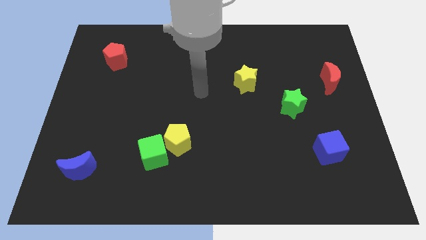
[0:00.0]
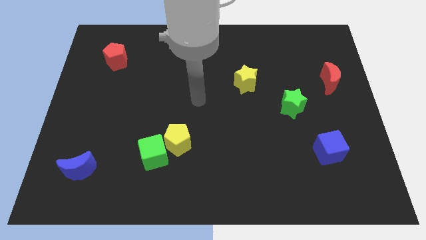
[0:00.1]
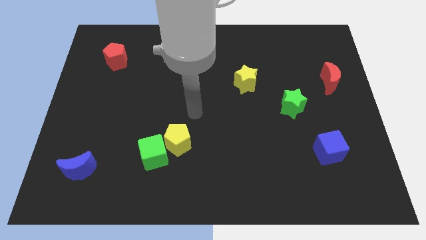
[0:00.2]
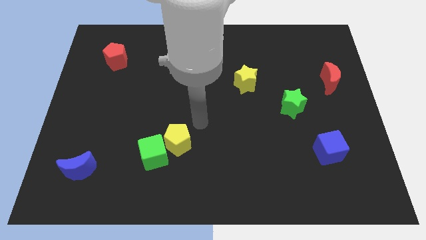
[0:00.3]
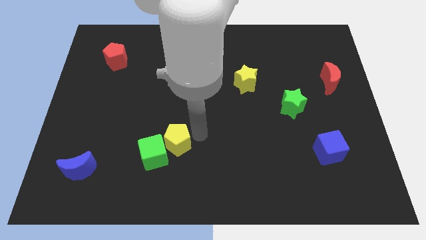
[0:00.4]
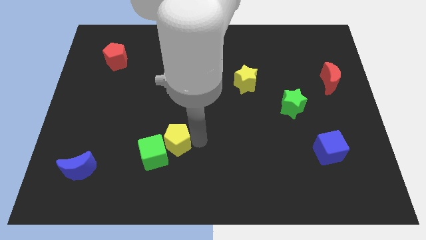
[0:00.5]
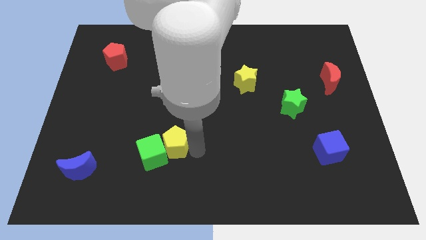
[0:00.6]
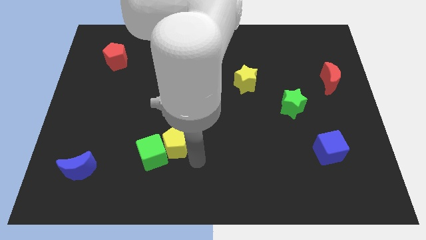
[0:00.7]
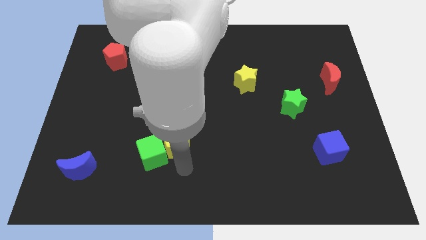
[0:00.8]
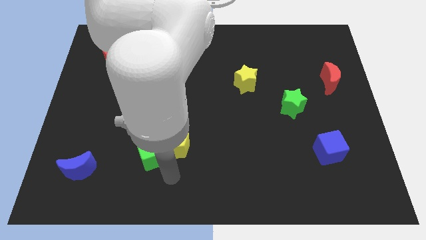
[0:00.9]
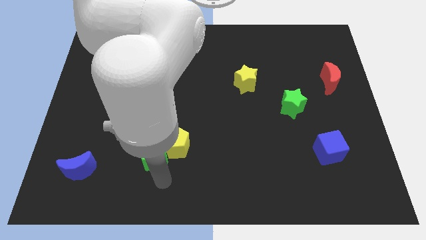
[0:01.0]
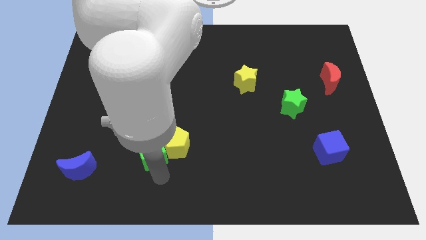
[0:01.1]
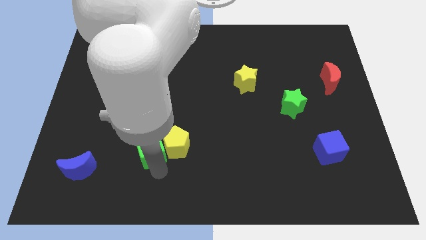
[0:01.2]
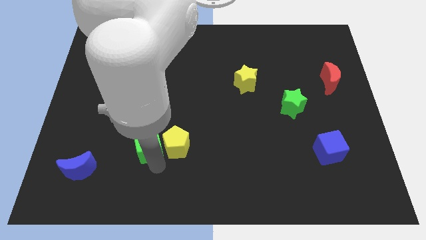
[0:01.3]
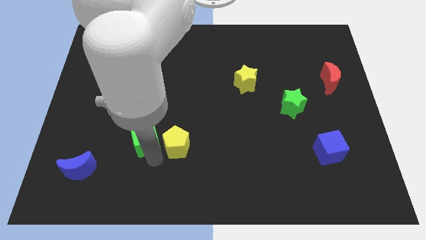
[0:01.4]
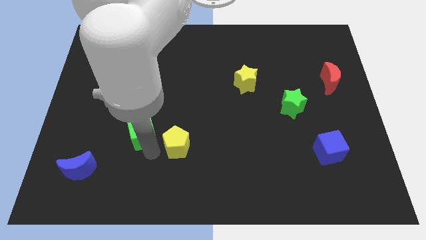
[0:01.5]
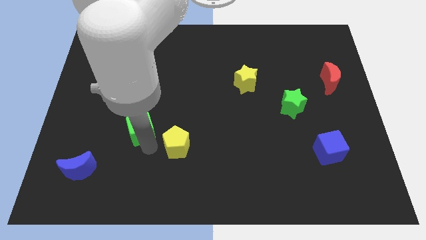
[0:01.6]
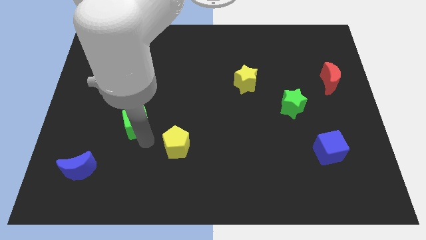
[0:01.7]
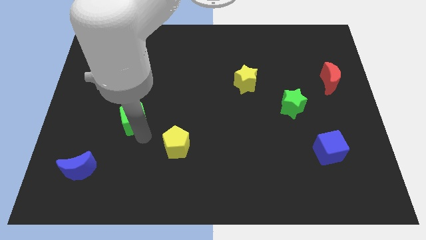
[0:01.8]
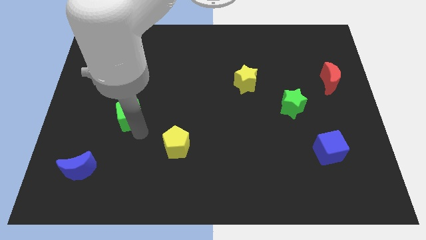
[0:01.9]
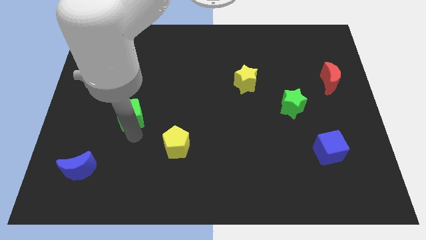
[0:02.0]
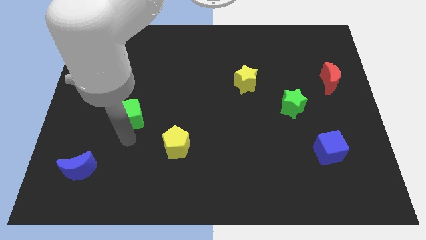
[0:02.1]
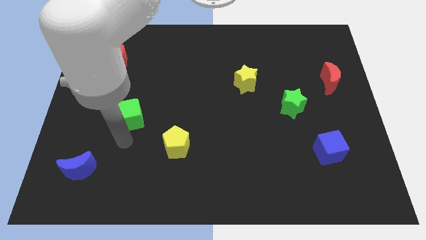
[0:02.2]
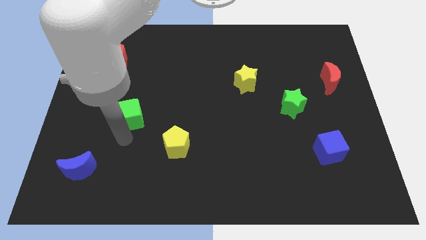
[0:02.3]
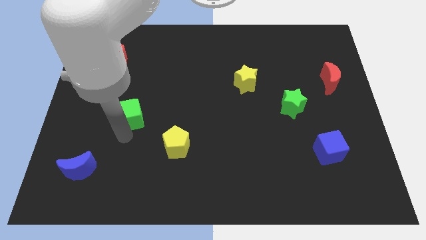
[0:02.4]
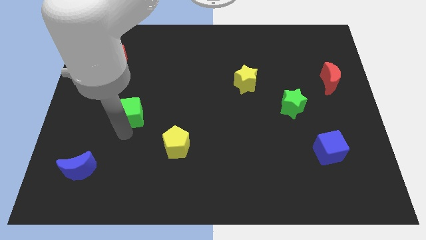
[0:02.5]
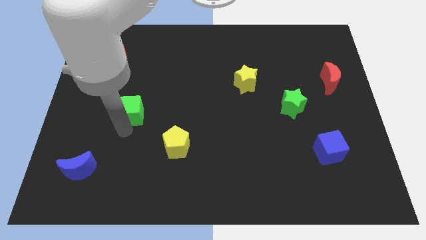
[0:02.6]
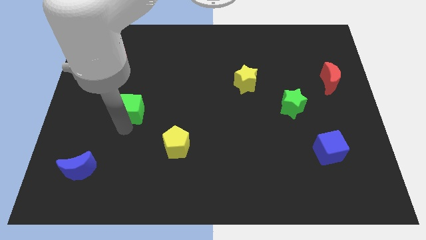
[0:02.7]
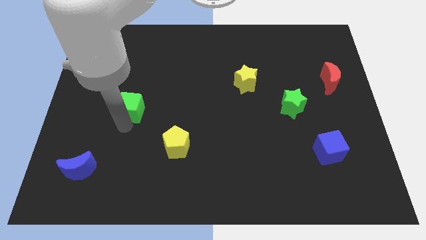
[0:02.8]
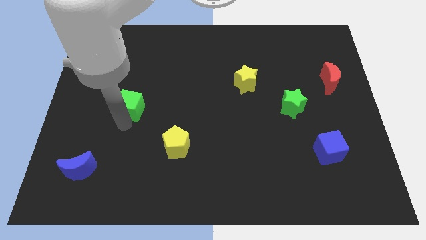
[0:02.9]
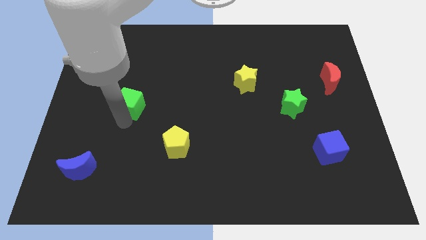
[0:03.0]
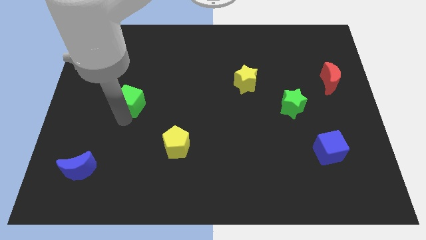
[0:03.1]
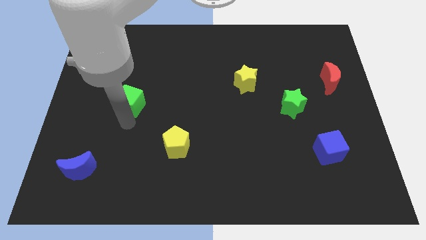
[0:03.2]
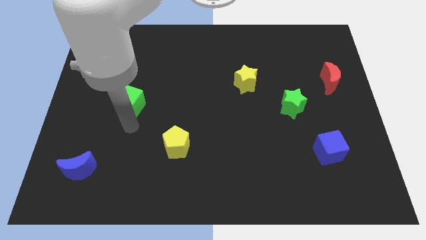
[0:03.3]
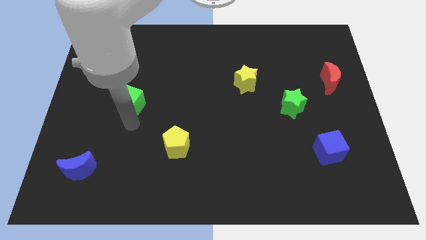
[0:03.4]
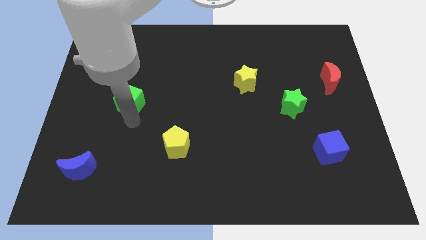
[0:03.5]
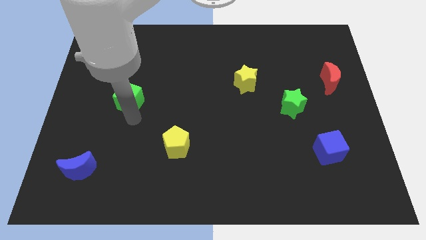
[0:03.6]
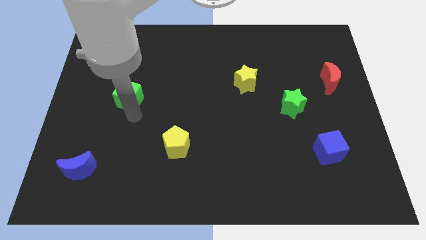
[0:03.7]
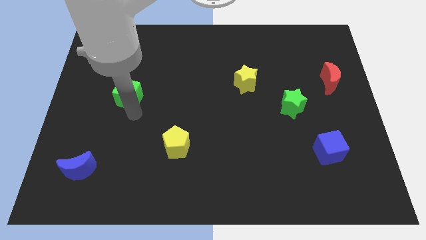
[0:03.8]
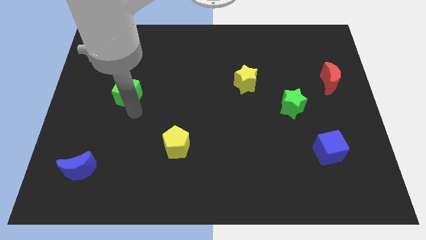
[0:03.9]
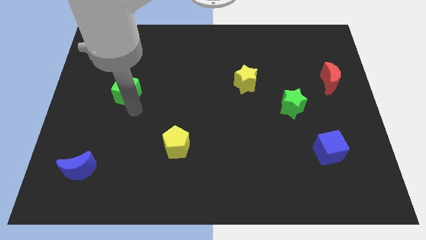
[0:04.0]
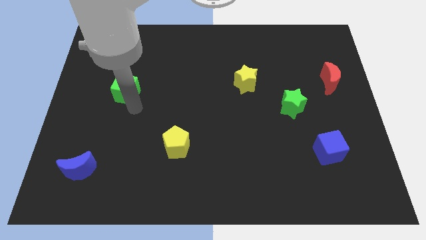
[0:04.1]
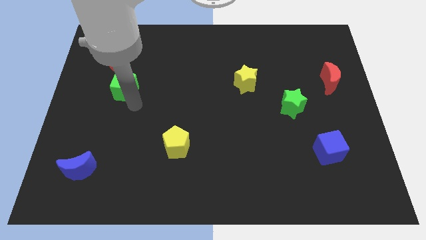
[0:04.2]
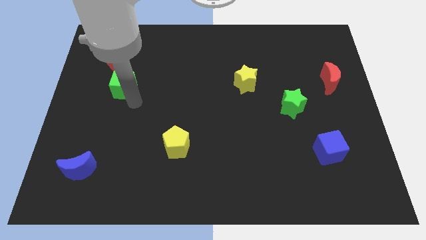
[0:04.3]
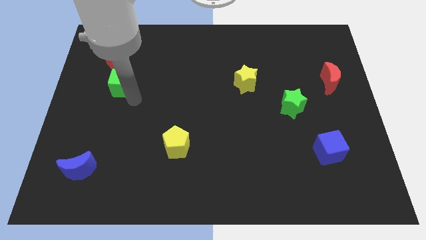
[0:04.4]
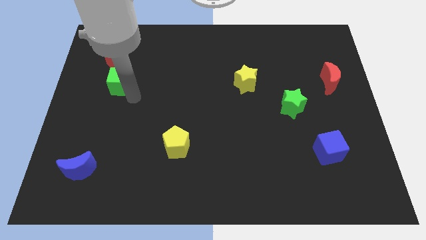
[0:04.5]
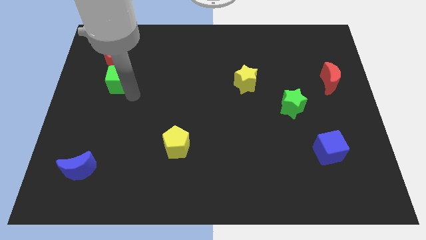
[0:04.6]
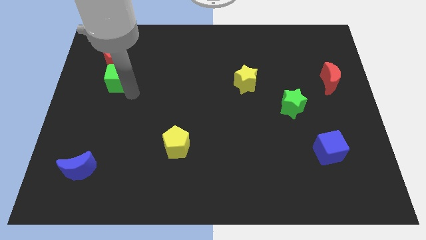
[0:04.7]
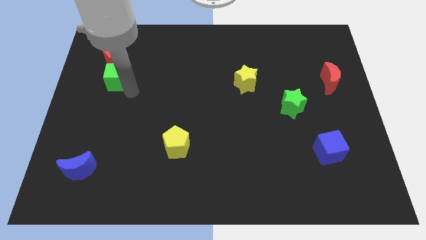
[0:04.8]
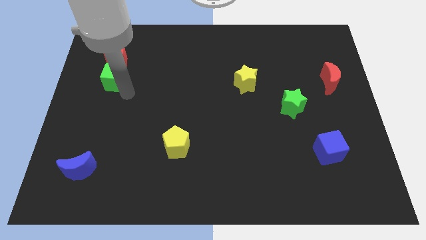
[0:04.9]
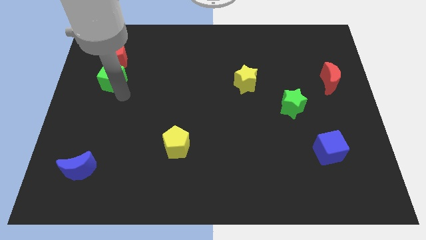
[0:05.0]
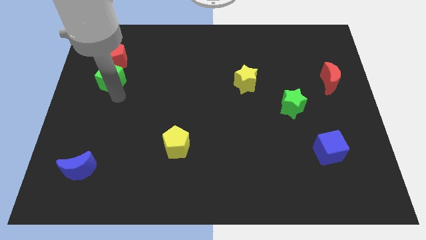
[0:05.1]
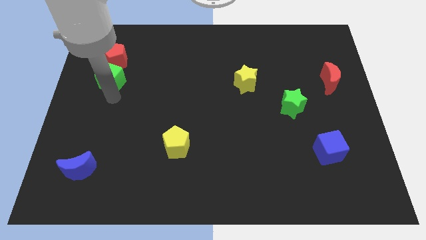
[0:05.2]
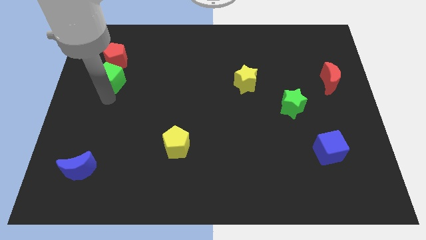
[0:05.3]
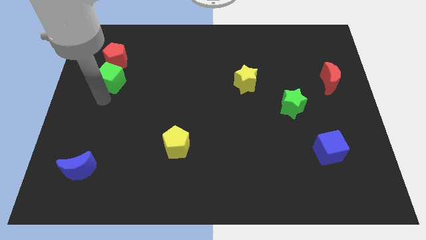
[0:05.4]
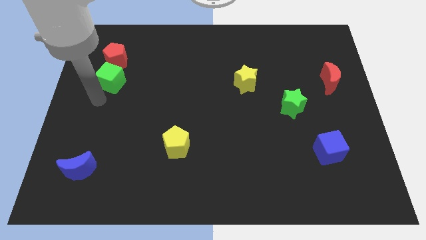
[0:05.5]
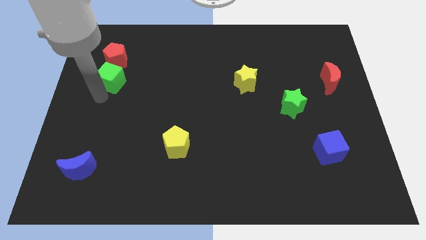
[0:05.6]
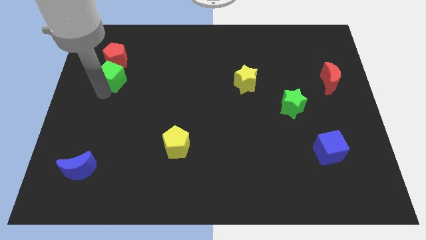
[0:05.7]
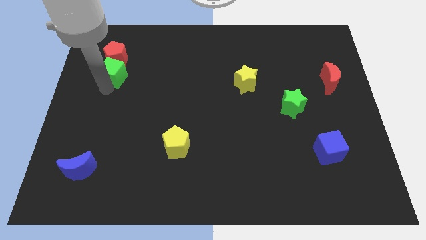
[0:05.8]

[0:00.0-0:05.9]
put the green cube towards the red pentagon

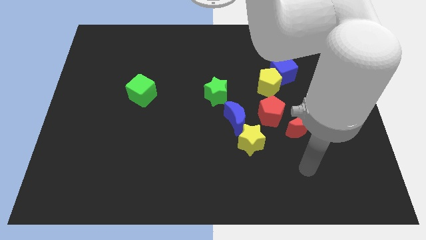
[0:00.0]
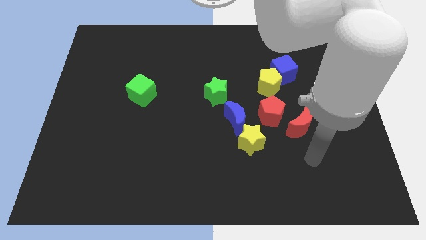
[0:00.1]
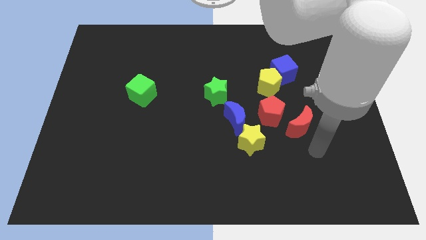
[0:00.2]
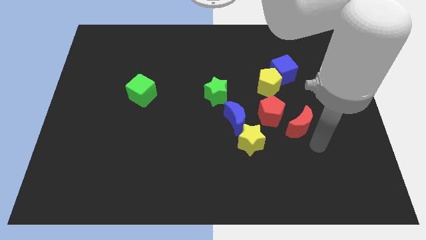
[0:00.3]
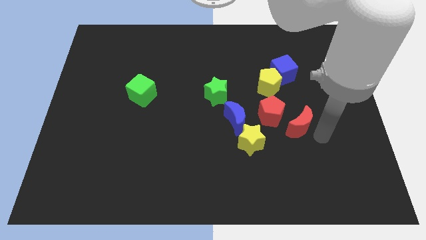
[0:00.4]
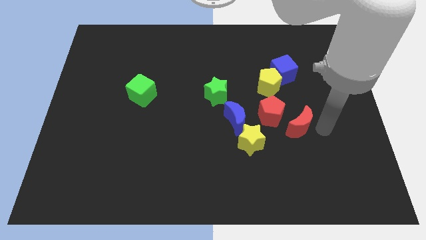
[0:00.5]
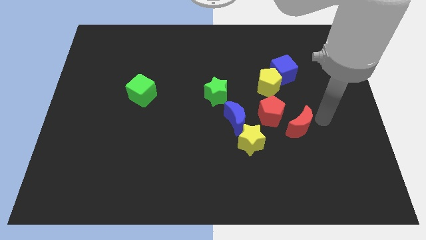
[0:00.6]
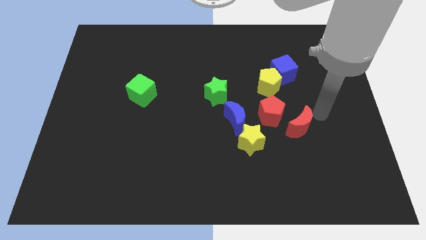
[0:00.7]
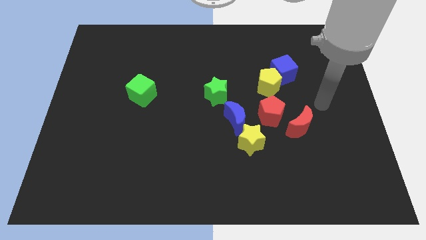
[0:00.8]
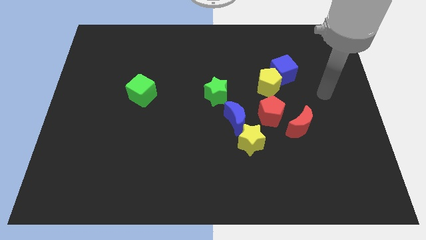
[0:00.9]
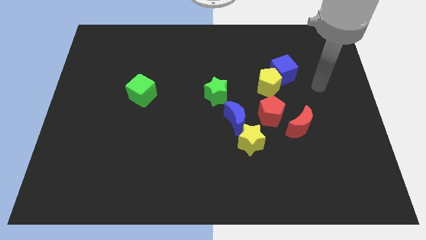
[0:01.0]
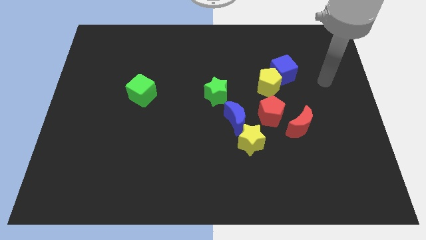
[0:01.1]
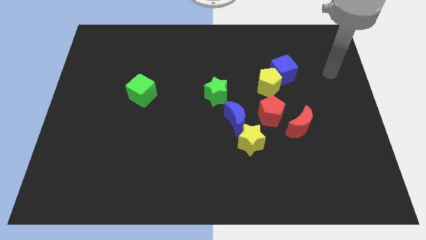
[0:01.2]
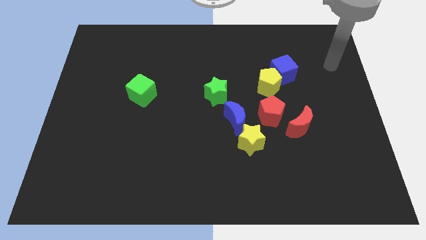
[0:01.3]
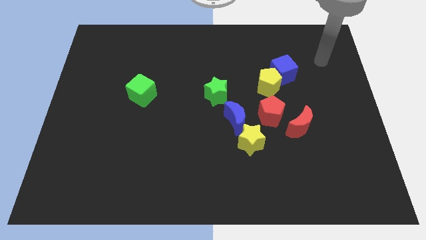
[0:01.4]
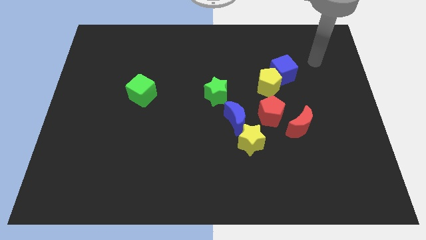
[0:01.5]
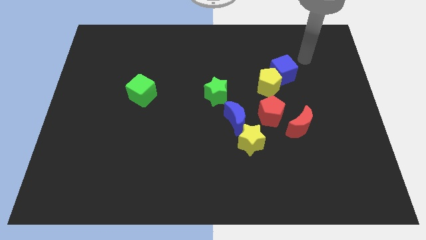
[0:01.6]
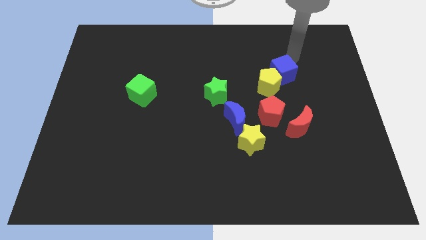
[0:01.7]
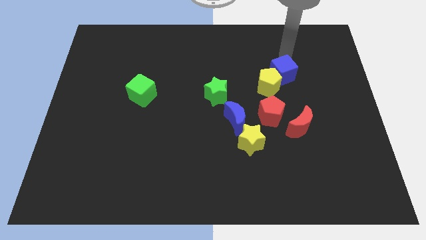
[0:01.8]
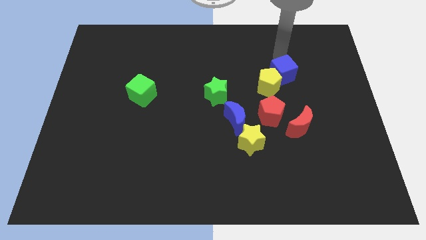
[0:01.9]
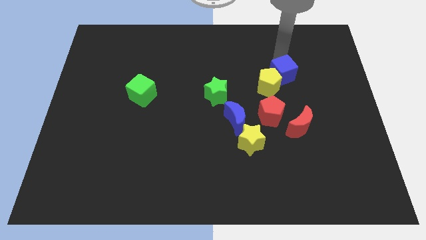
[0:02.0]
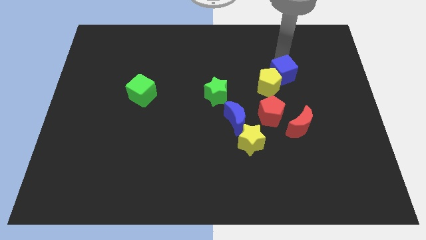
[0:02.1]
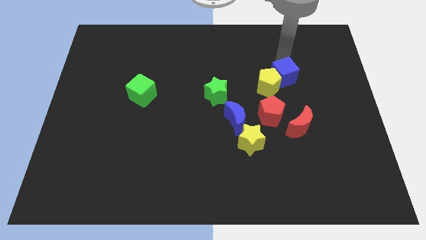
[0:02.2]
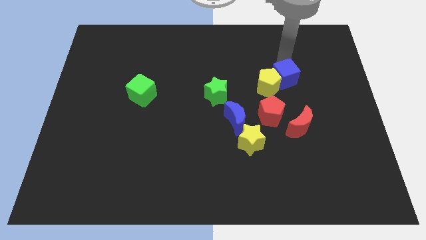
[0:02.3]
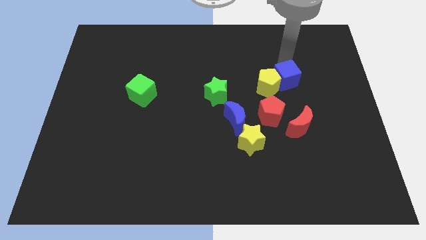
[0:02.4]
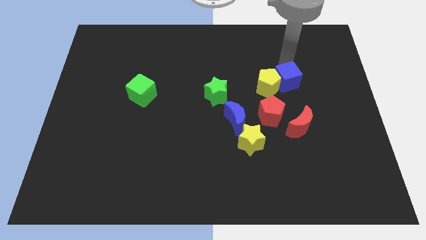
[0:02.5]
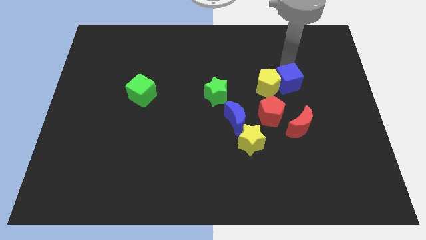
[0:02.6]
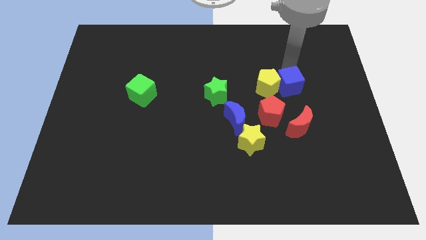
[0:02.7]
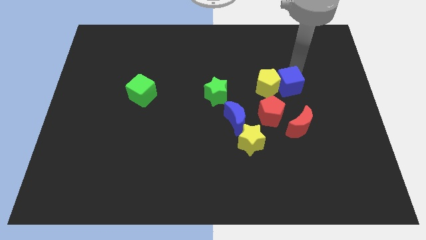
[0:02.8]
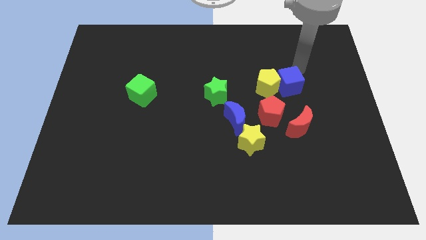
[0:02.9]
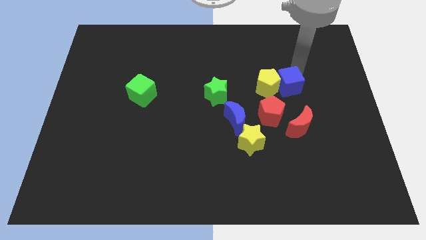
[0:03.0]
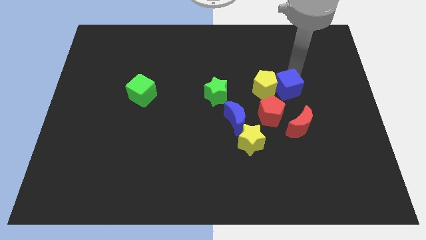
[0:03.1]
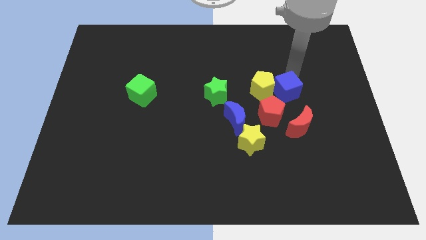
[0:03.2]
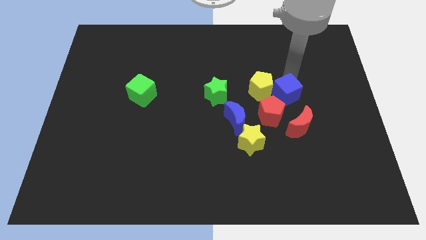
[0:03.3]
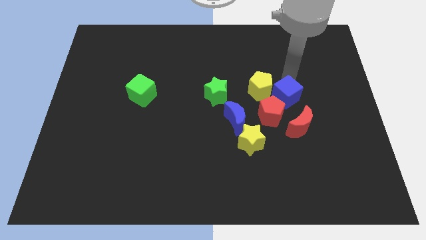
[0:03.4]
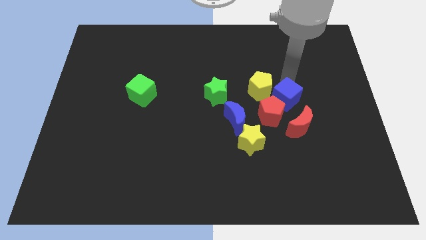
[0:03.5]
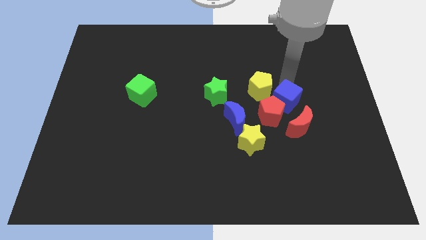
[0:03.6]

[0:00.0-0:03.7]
slide the blue cube to the red pentagon
